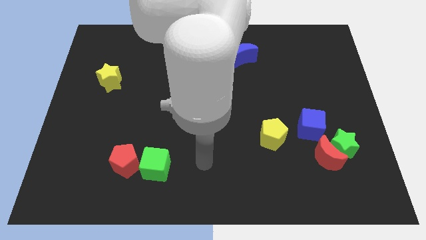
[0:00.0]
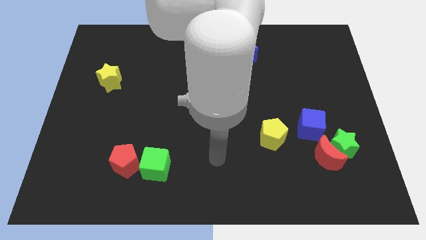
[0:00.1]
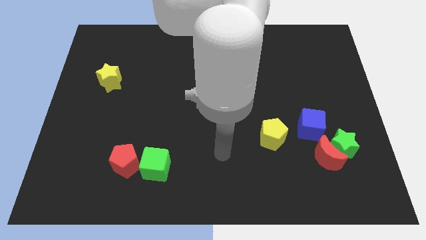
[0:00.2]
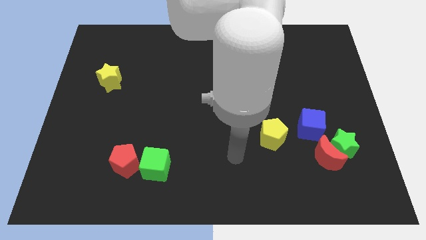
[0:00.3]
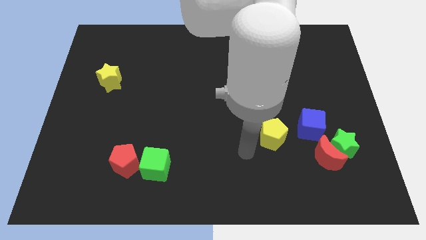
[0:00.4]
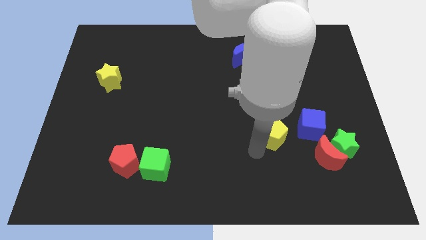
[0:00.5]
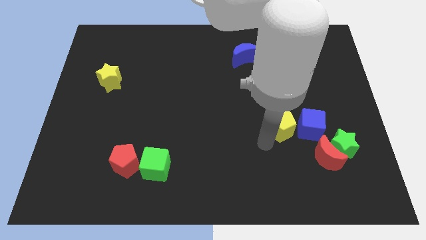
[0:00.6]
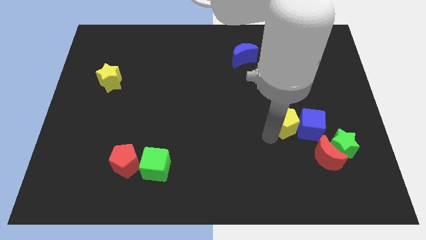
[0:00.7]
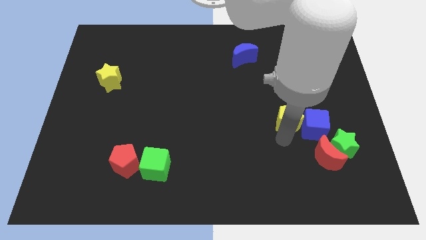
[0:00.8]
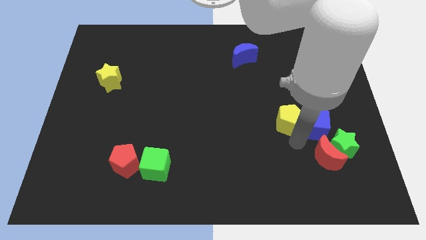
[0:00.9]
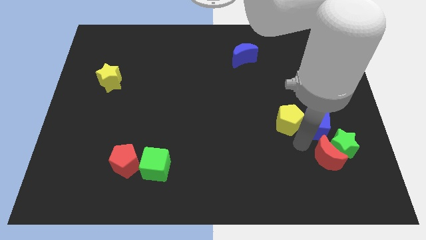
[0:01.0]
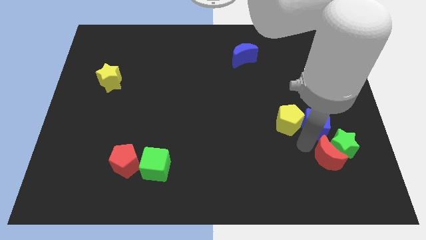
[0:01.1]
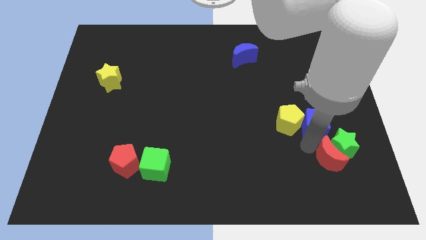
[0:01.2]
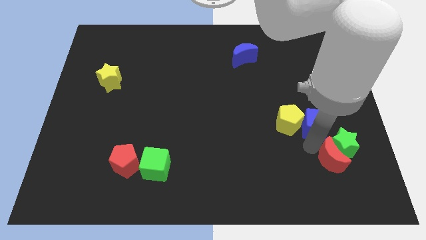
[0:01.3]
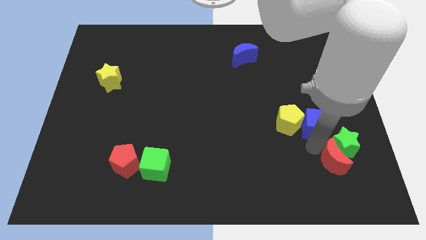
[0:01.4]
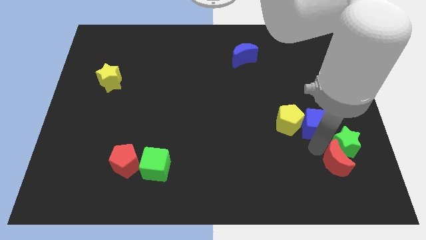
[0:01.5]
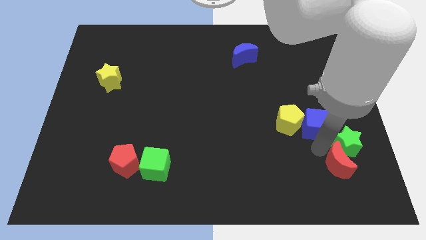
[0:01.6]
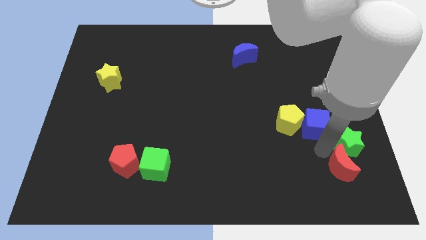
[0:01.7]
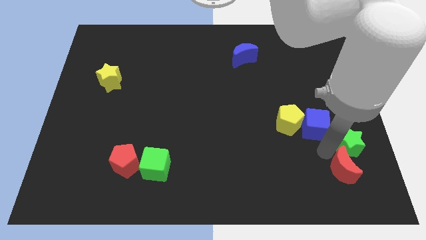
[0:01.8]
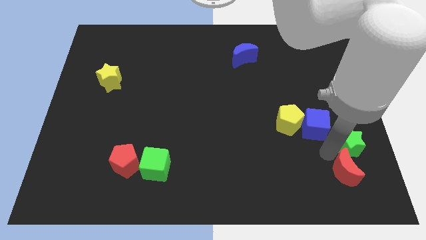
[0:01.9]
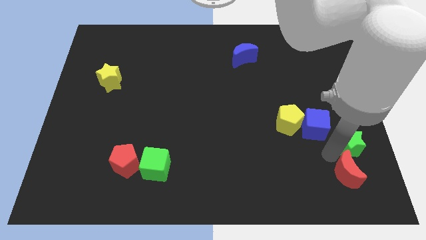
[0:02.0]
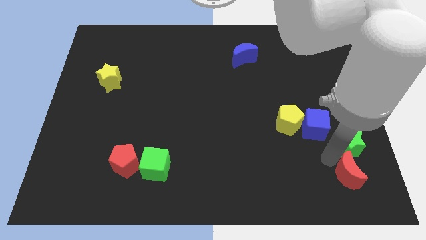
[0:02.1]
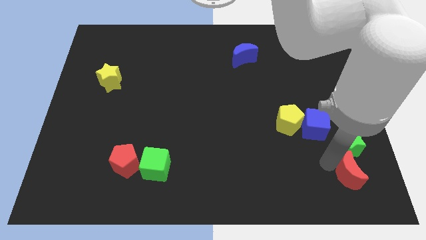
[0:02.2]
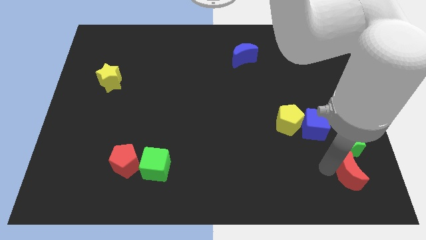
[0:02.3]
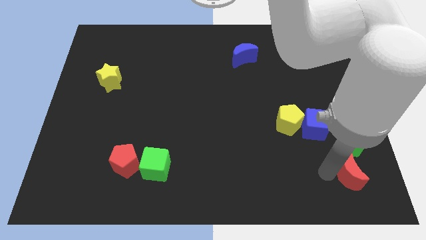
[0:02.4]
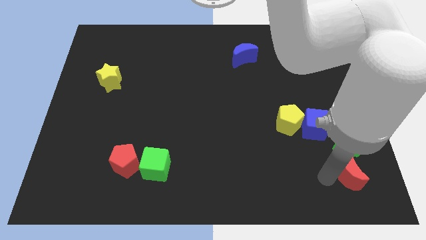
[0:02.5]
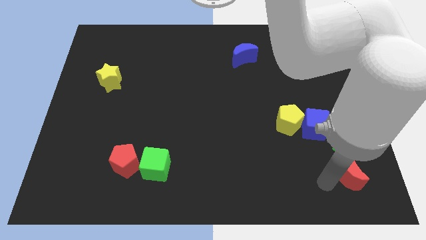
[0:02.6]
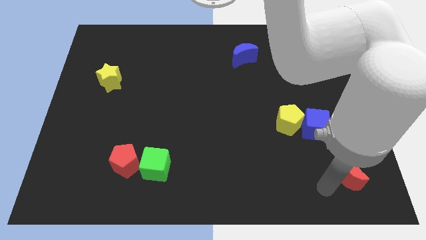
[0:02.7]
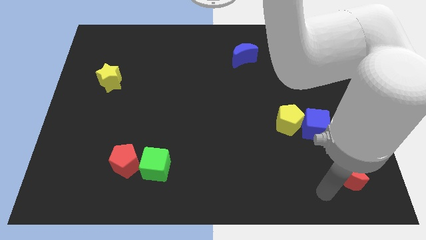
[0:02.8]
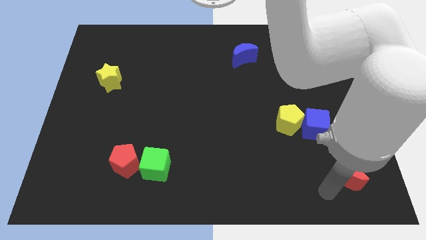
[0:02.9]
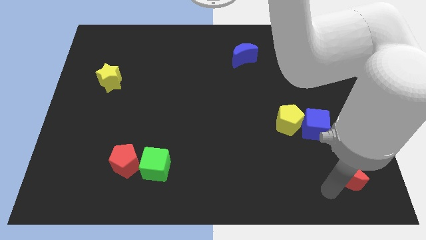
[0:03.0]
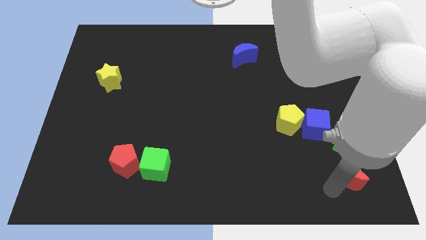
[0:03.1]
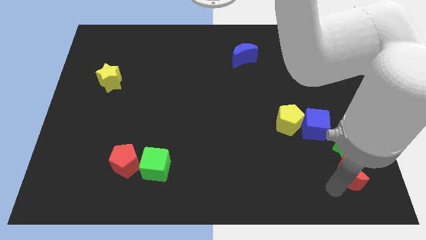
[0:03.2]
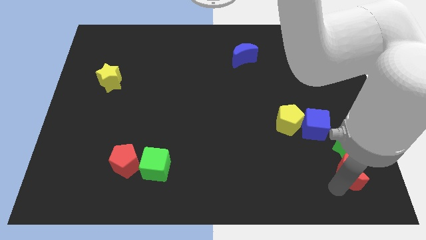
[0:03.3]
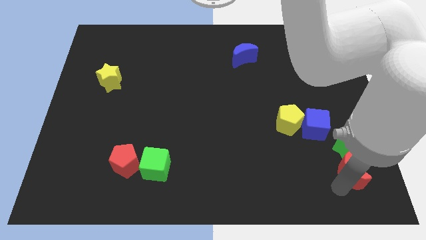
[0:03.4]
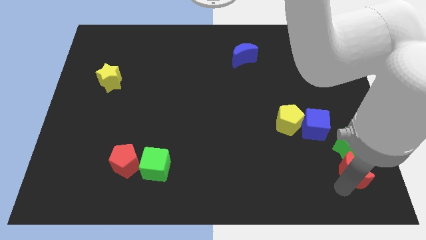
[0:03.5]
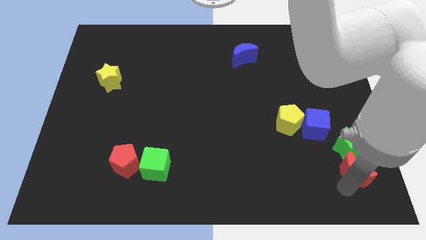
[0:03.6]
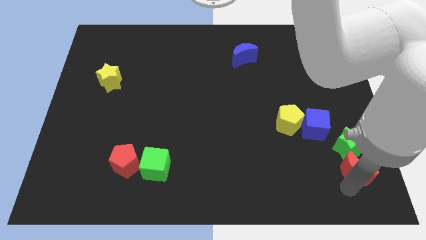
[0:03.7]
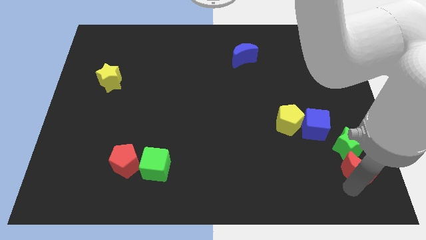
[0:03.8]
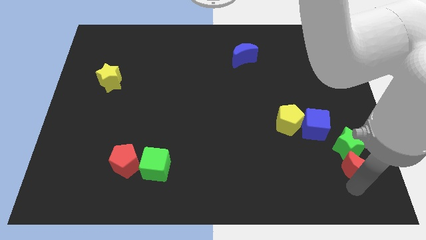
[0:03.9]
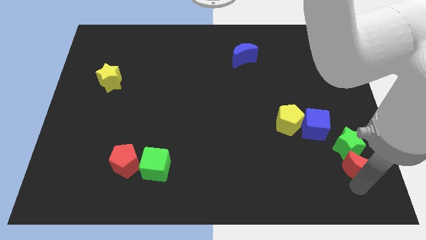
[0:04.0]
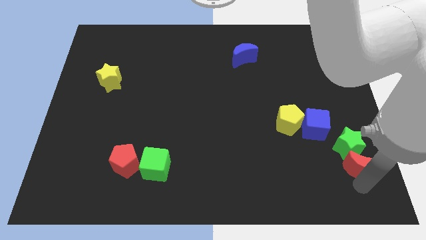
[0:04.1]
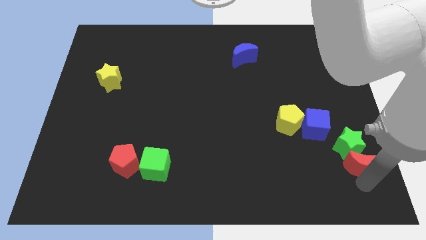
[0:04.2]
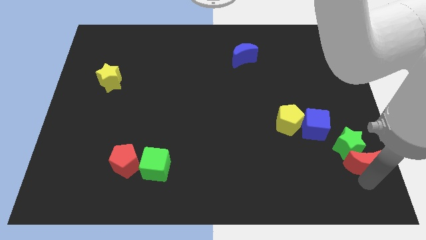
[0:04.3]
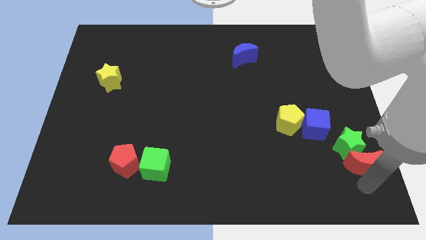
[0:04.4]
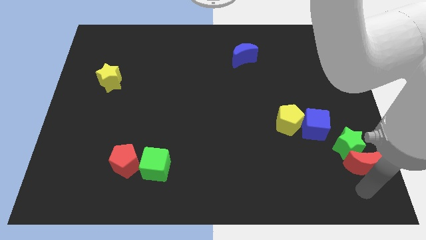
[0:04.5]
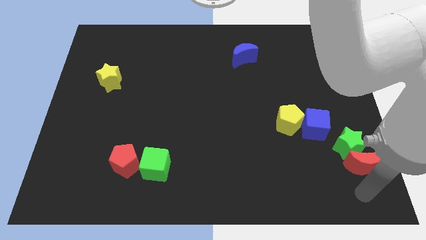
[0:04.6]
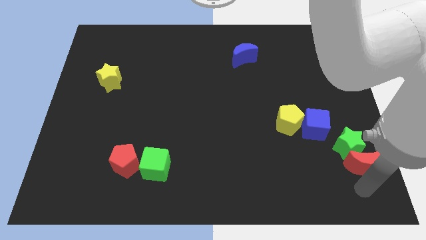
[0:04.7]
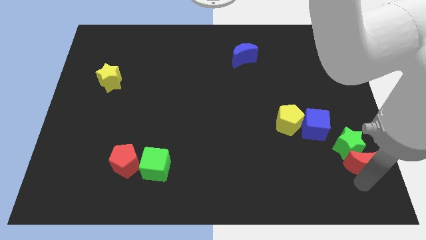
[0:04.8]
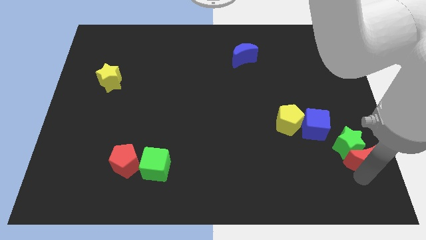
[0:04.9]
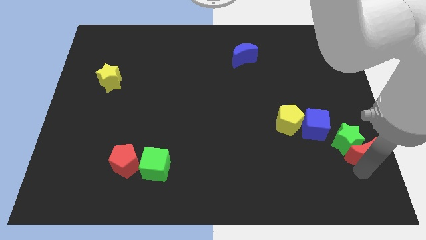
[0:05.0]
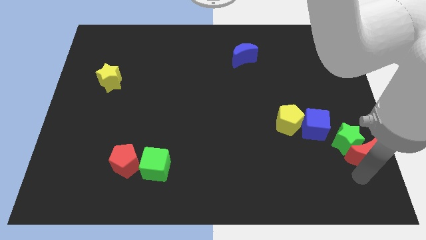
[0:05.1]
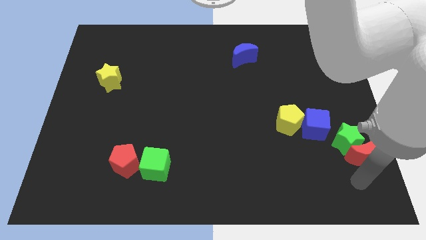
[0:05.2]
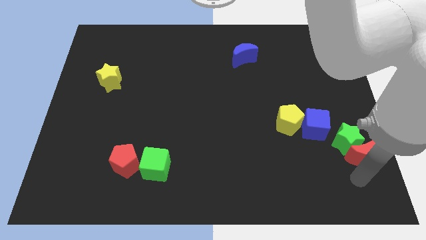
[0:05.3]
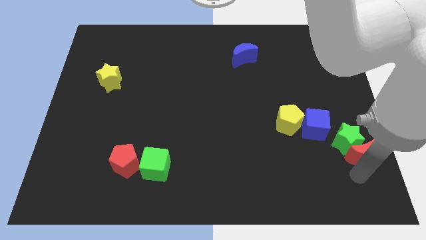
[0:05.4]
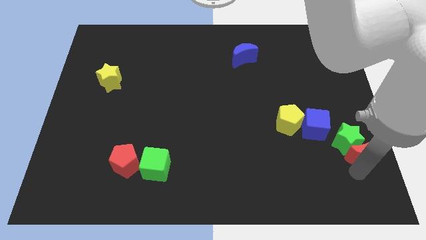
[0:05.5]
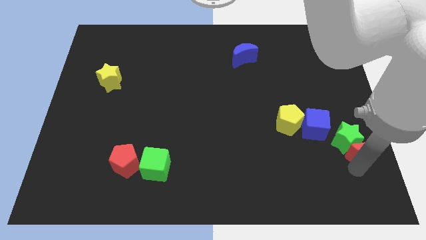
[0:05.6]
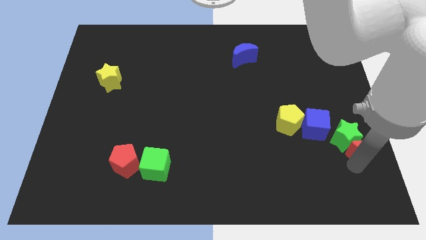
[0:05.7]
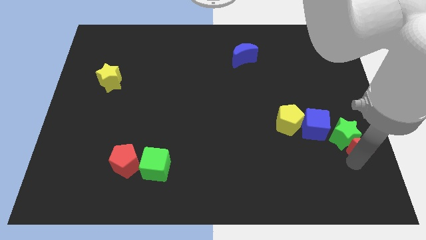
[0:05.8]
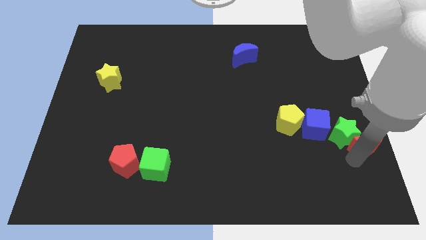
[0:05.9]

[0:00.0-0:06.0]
move the red moon to the right side of the board

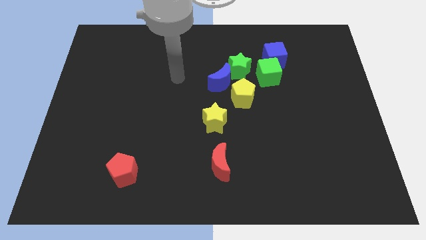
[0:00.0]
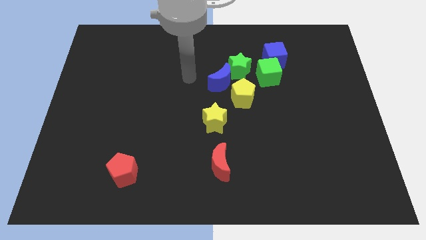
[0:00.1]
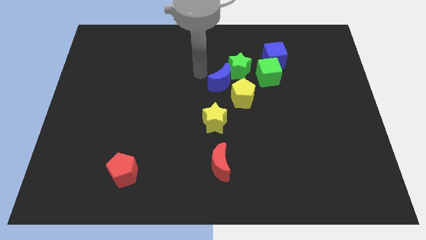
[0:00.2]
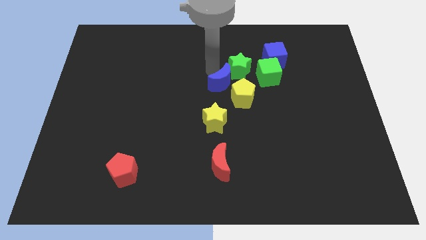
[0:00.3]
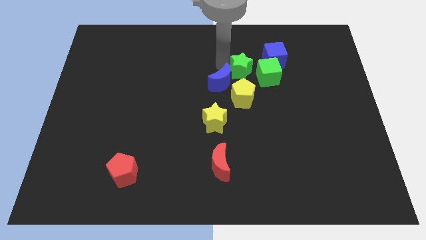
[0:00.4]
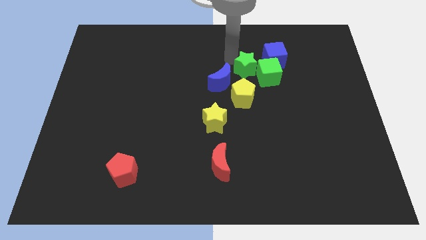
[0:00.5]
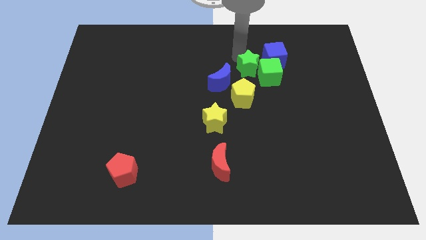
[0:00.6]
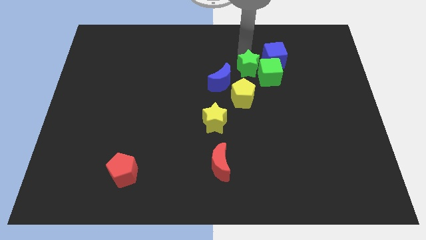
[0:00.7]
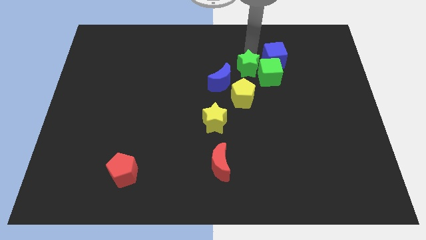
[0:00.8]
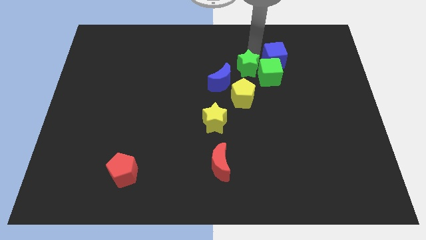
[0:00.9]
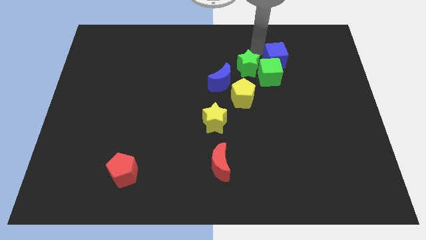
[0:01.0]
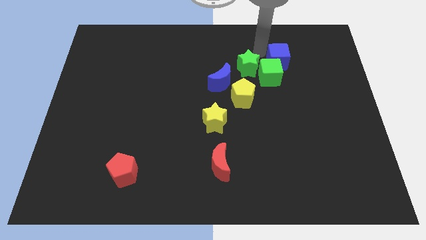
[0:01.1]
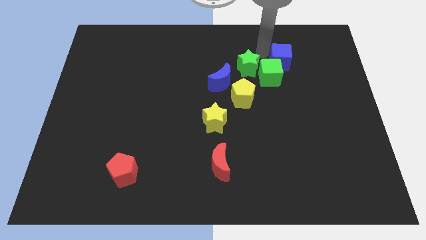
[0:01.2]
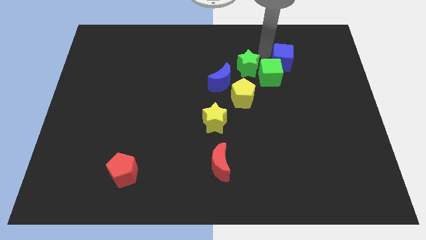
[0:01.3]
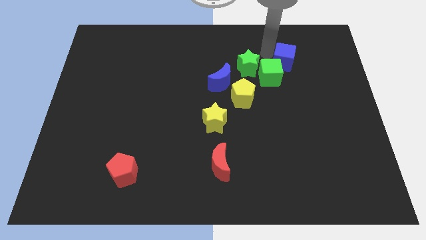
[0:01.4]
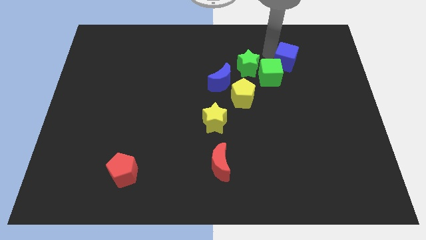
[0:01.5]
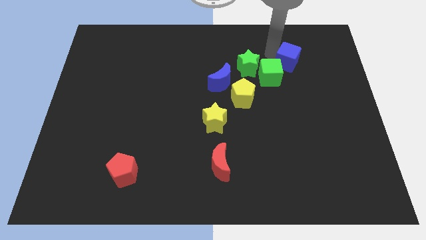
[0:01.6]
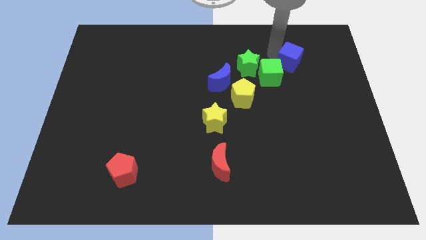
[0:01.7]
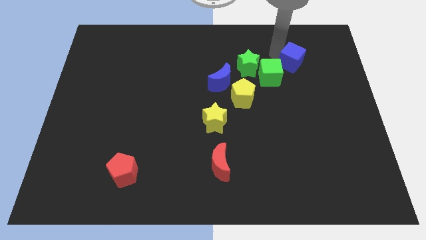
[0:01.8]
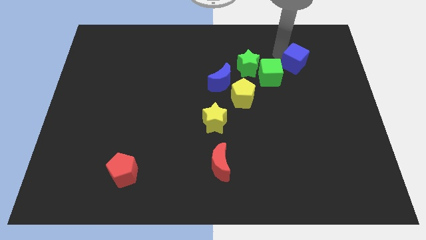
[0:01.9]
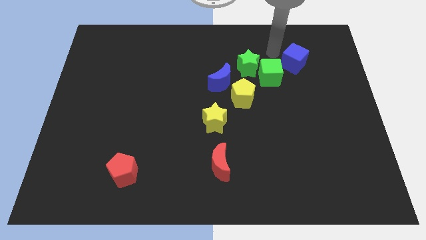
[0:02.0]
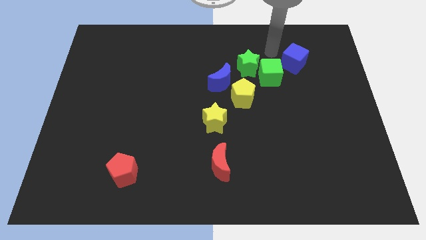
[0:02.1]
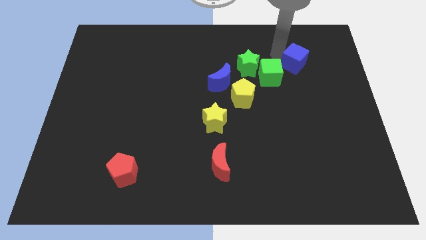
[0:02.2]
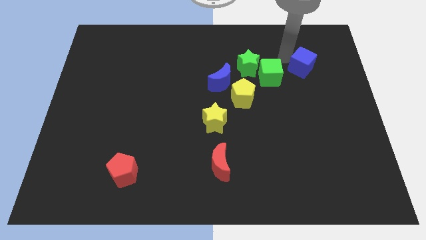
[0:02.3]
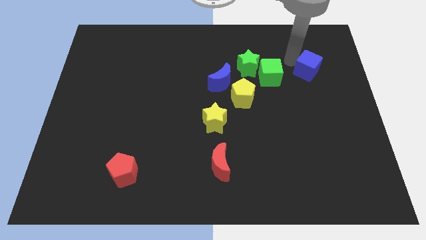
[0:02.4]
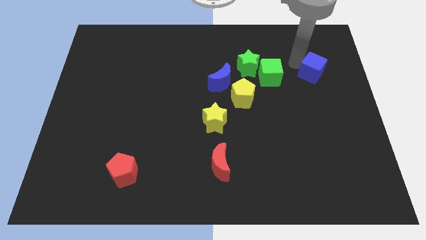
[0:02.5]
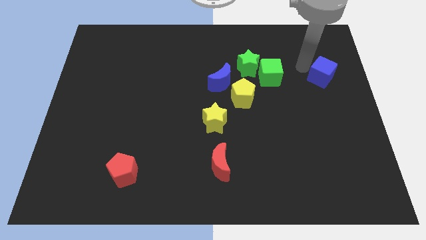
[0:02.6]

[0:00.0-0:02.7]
push the blue cube to the center right
